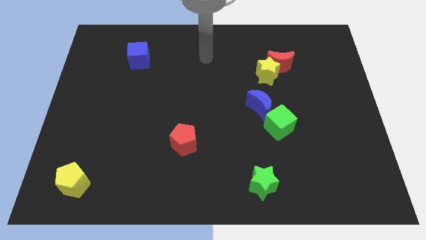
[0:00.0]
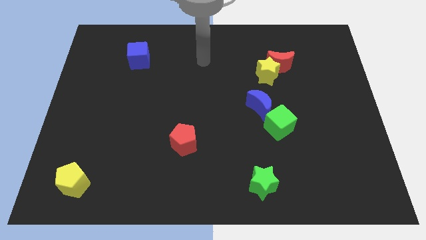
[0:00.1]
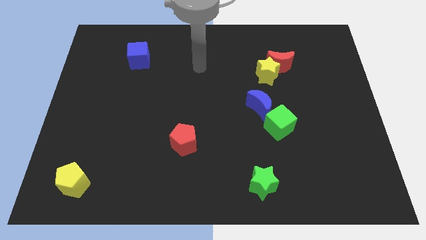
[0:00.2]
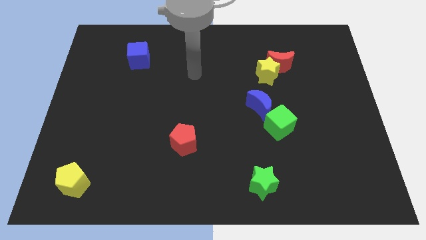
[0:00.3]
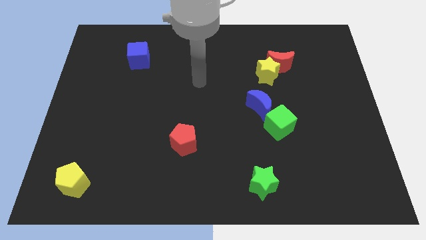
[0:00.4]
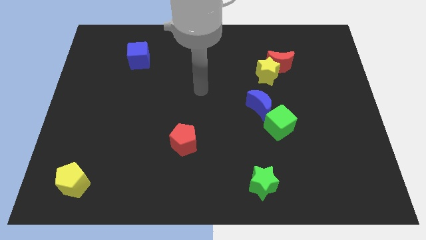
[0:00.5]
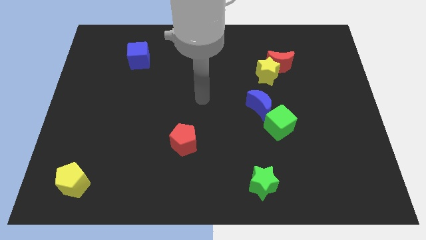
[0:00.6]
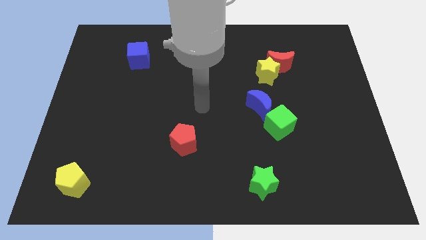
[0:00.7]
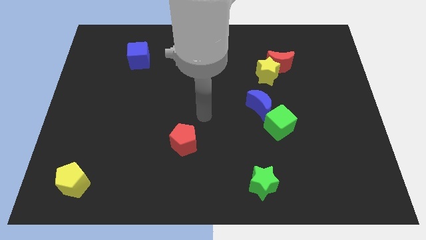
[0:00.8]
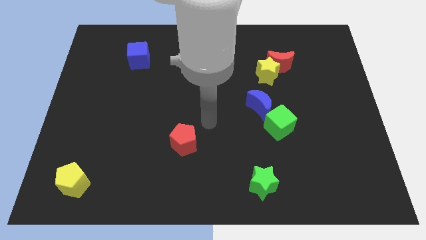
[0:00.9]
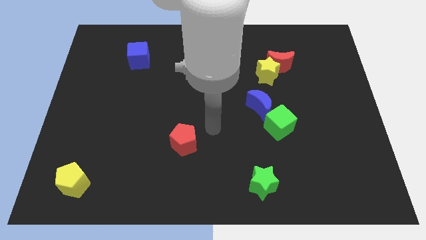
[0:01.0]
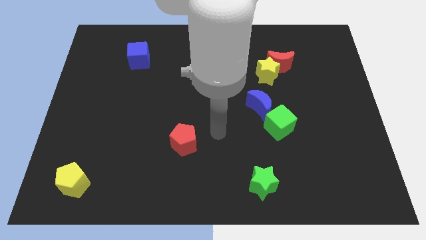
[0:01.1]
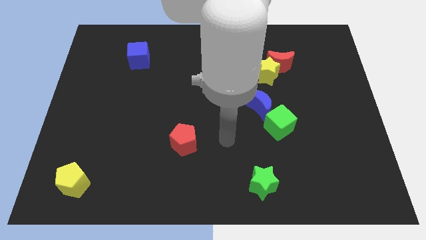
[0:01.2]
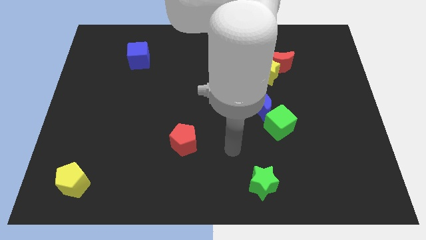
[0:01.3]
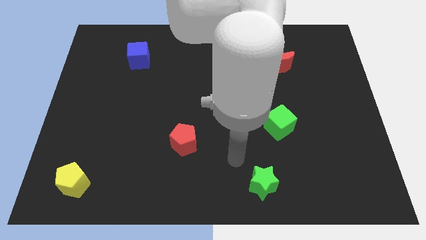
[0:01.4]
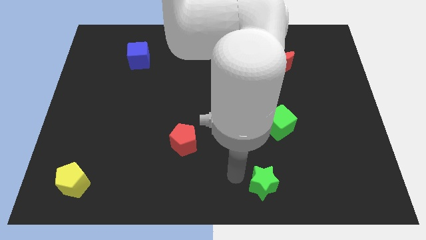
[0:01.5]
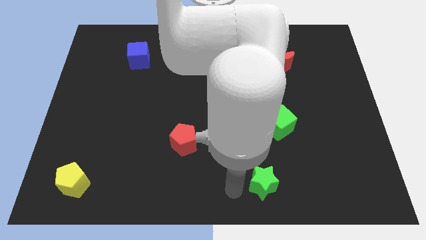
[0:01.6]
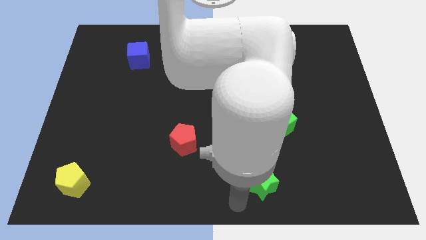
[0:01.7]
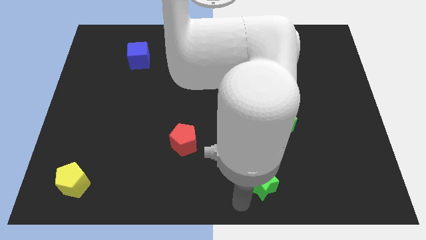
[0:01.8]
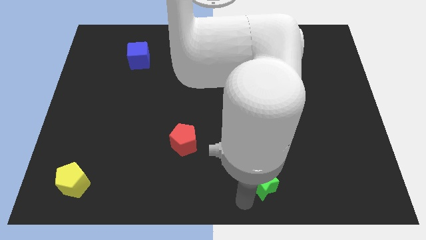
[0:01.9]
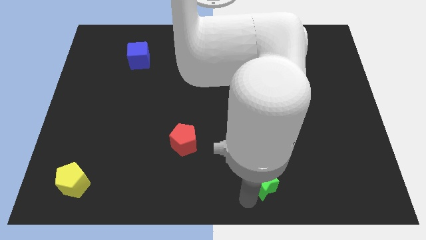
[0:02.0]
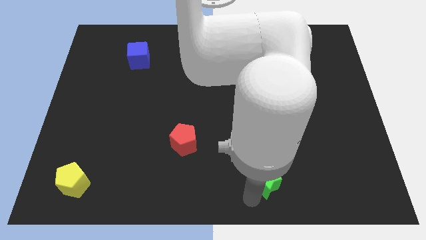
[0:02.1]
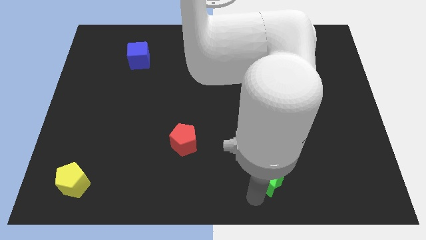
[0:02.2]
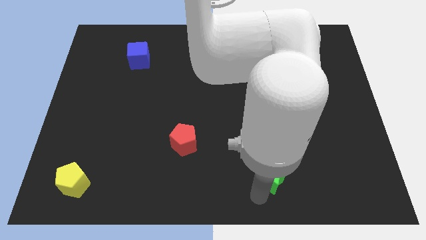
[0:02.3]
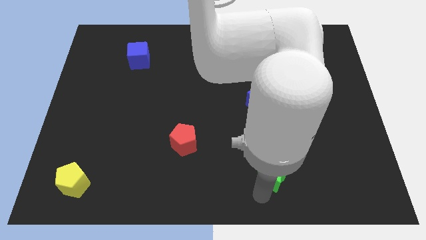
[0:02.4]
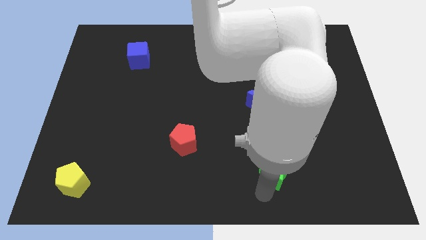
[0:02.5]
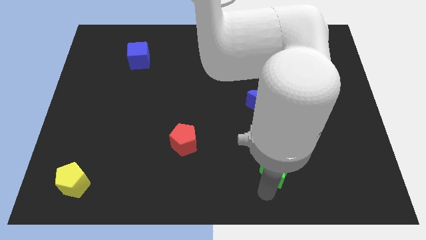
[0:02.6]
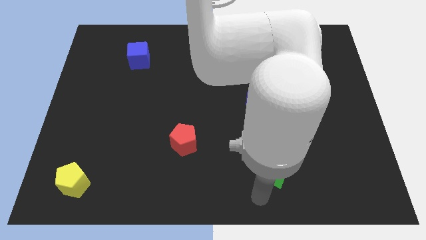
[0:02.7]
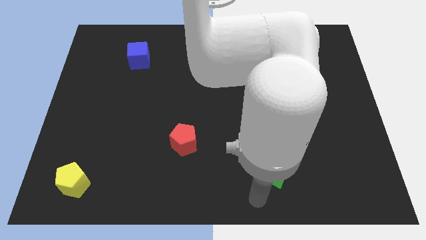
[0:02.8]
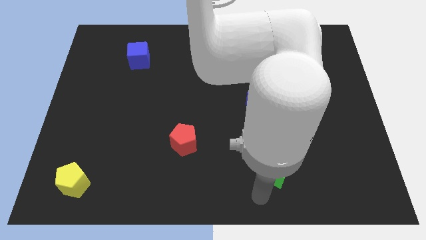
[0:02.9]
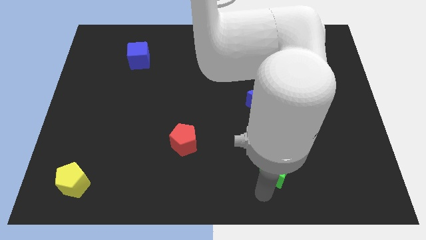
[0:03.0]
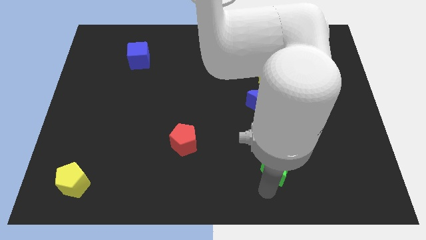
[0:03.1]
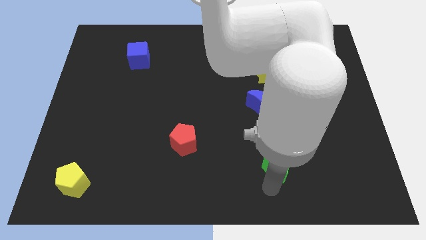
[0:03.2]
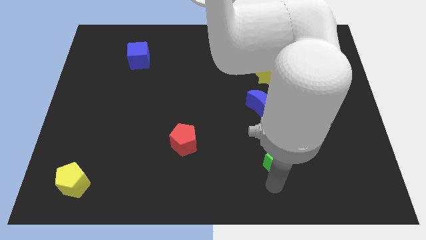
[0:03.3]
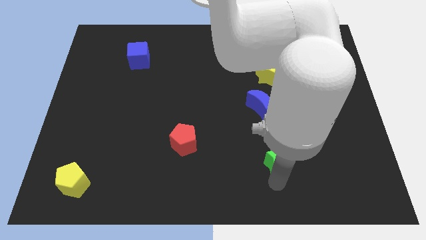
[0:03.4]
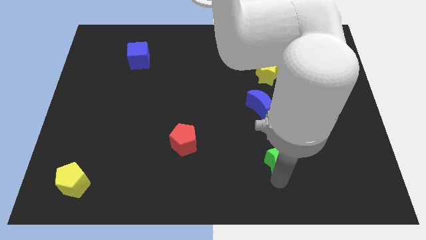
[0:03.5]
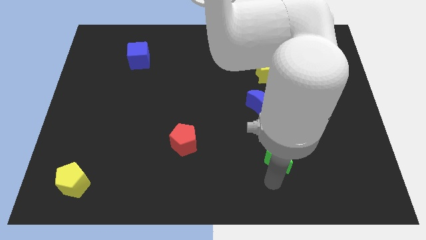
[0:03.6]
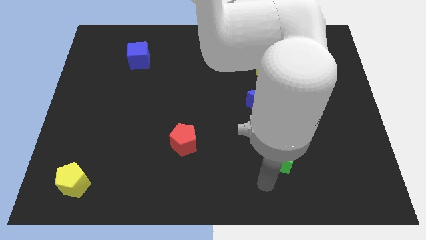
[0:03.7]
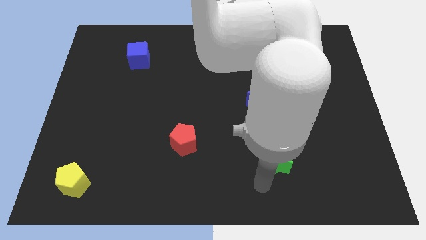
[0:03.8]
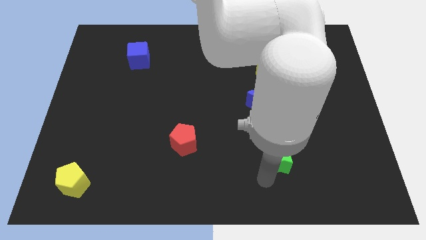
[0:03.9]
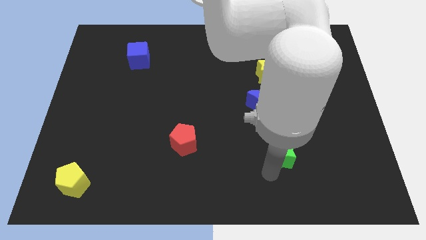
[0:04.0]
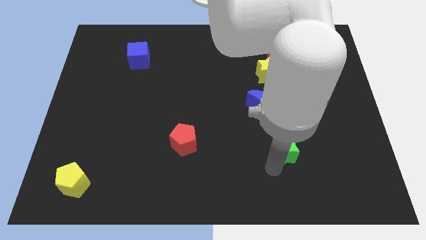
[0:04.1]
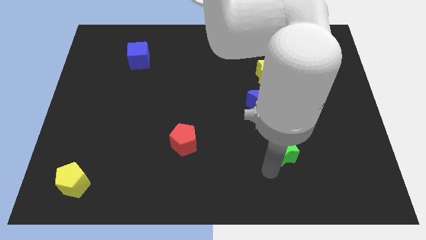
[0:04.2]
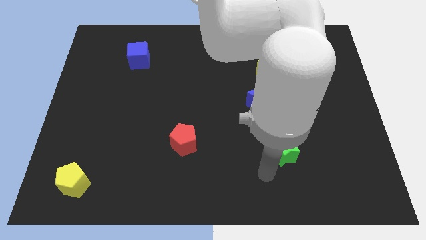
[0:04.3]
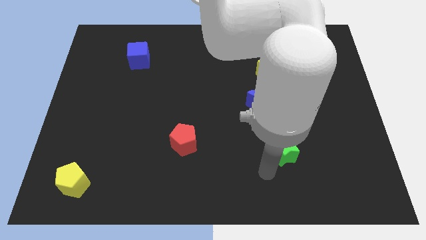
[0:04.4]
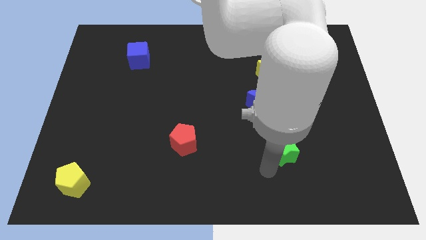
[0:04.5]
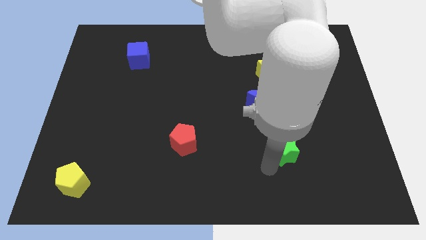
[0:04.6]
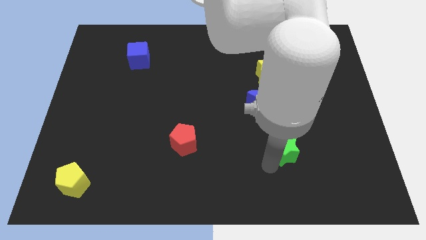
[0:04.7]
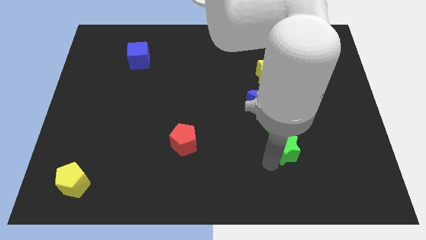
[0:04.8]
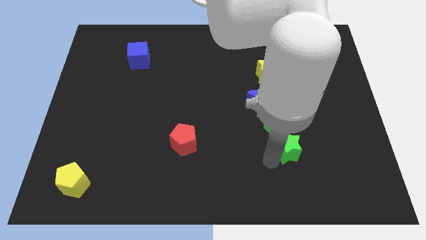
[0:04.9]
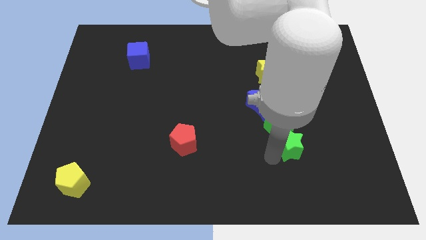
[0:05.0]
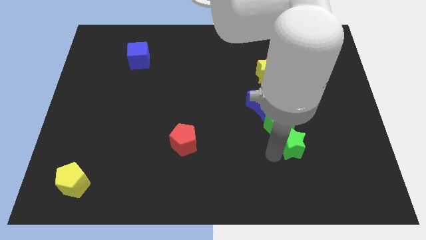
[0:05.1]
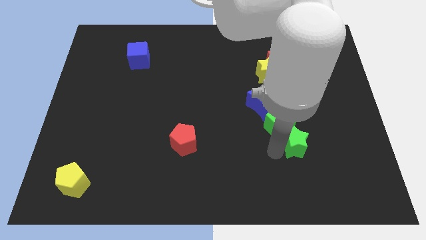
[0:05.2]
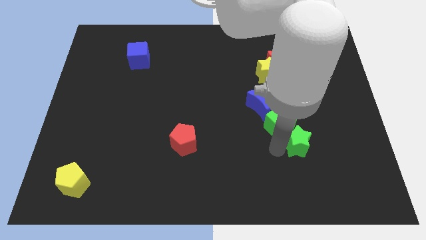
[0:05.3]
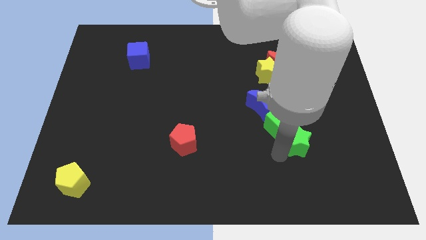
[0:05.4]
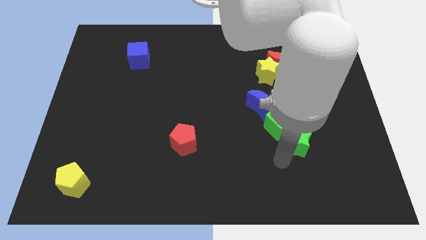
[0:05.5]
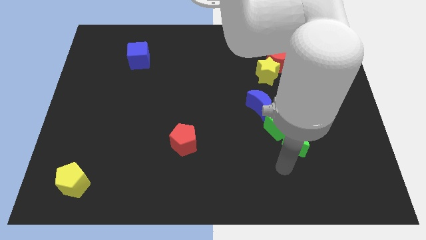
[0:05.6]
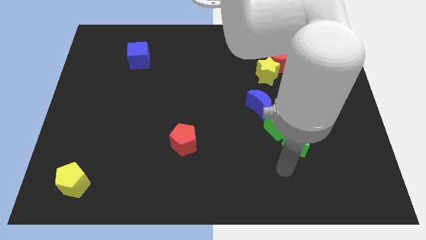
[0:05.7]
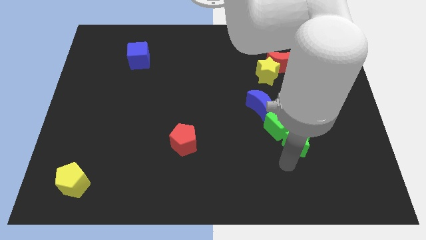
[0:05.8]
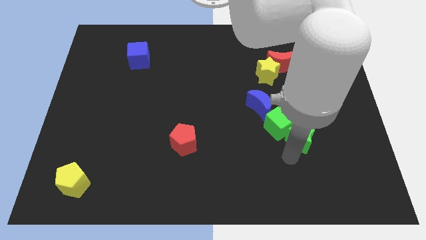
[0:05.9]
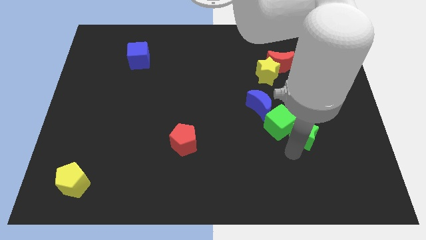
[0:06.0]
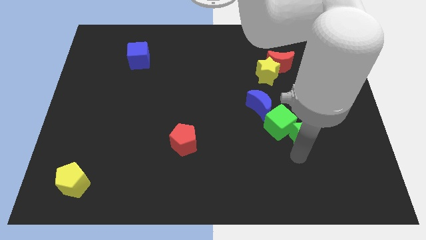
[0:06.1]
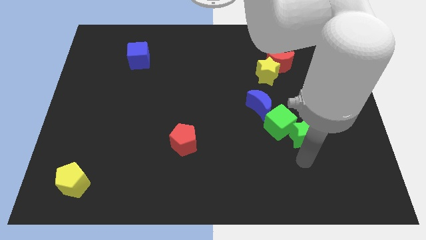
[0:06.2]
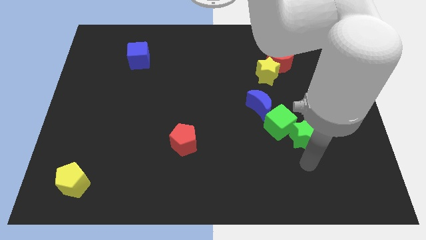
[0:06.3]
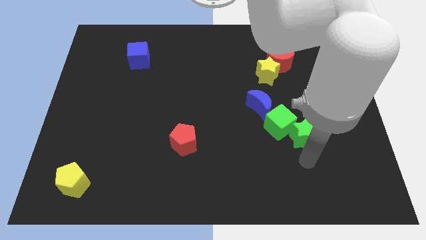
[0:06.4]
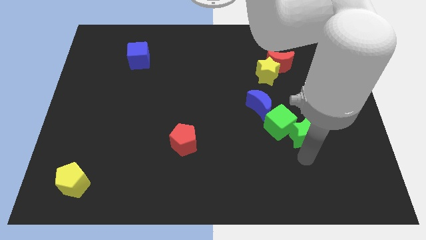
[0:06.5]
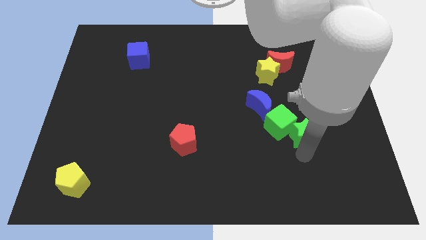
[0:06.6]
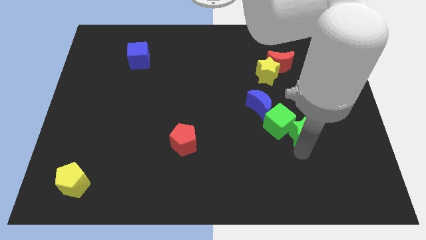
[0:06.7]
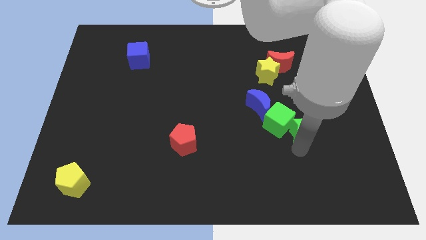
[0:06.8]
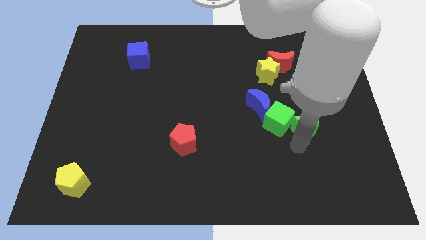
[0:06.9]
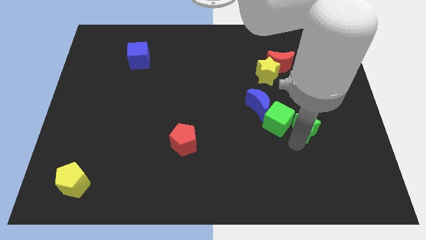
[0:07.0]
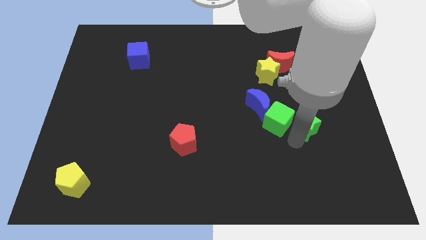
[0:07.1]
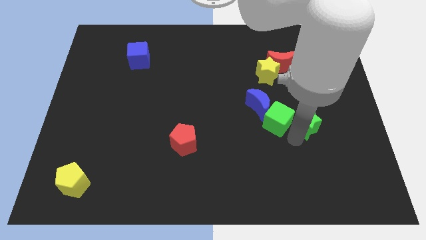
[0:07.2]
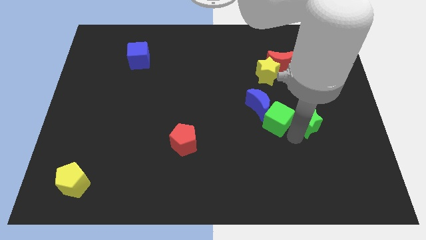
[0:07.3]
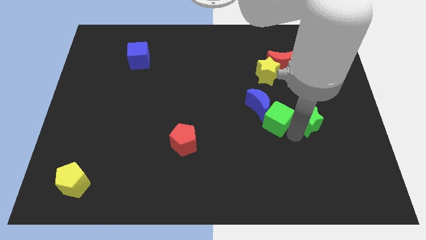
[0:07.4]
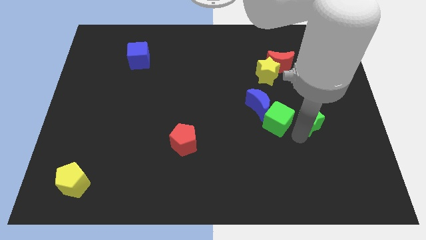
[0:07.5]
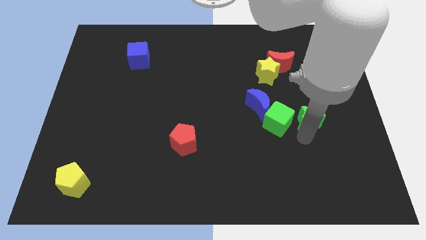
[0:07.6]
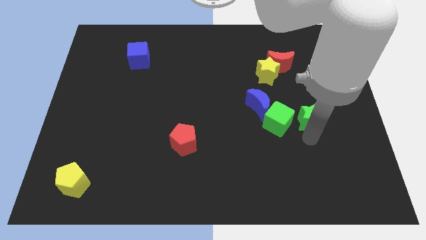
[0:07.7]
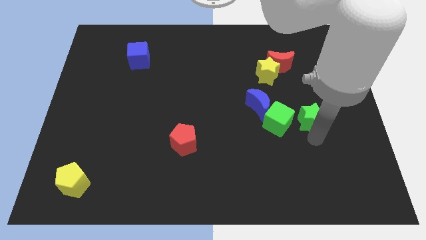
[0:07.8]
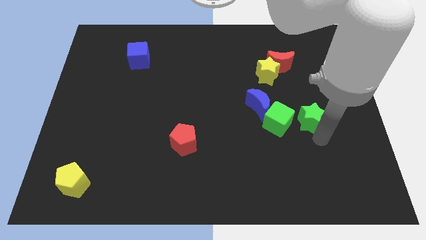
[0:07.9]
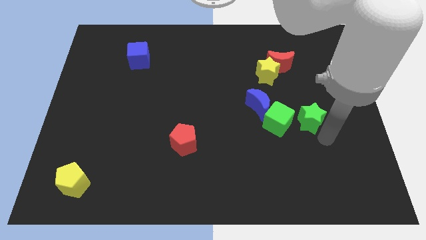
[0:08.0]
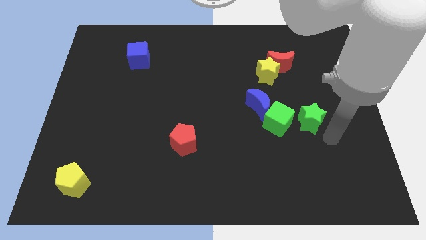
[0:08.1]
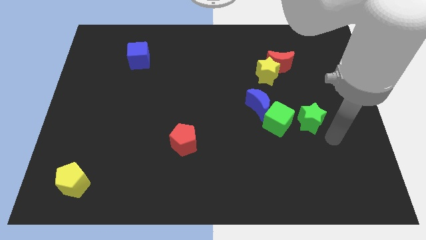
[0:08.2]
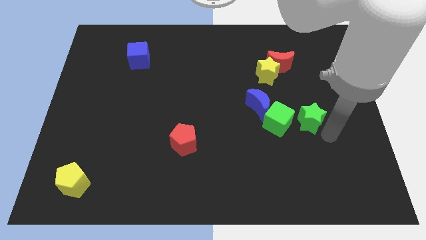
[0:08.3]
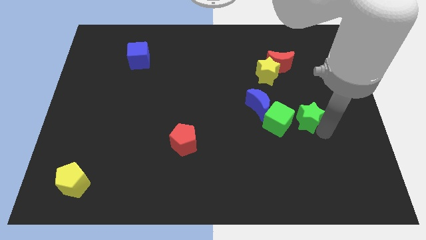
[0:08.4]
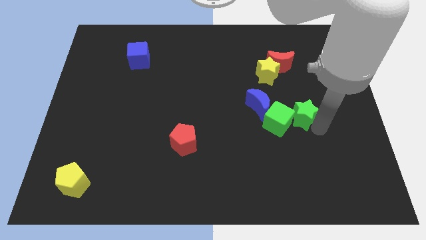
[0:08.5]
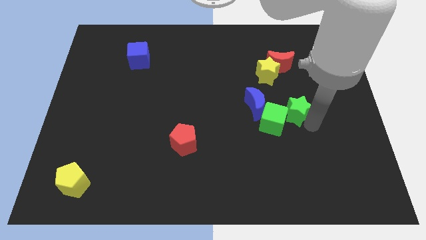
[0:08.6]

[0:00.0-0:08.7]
move the green star to the bottom of the red moon
